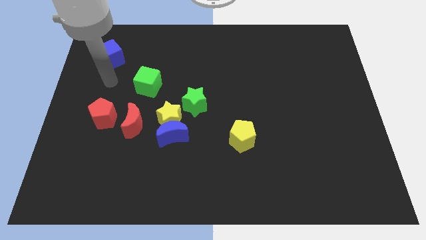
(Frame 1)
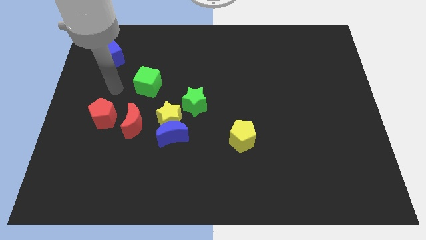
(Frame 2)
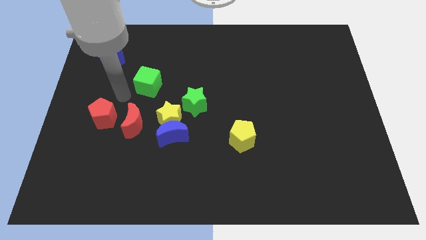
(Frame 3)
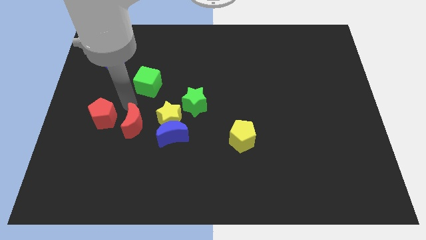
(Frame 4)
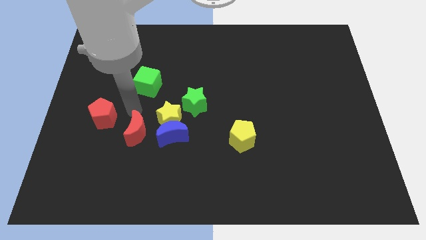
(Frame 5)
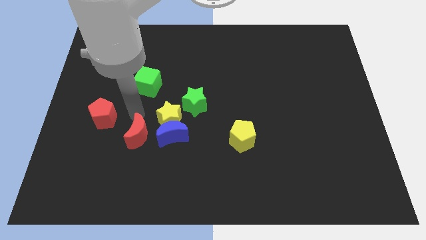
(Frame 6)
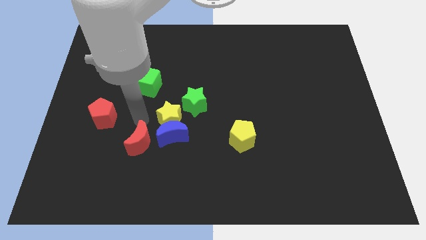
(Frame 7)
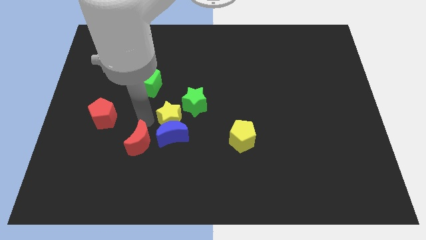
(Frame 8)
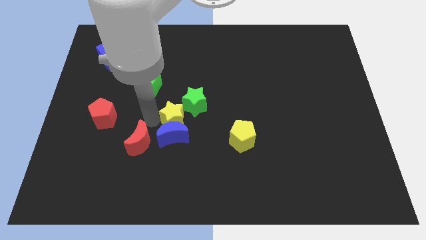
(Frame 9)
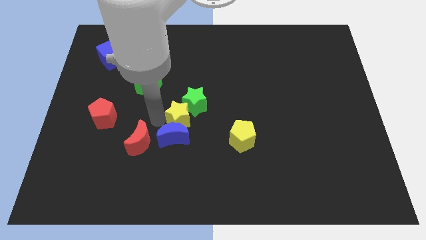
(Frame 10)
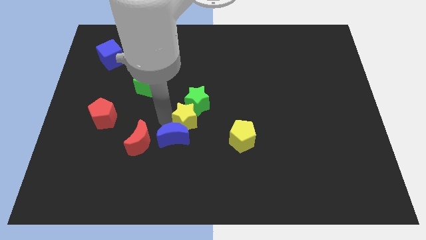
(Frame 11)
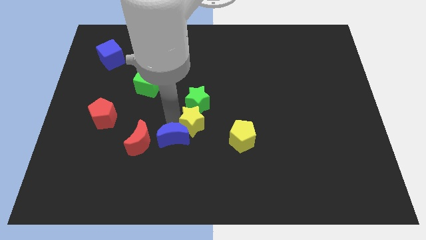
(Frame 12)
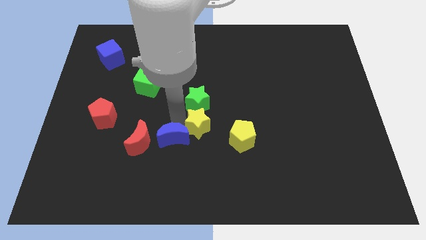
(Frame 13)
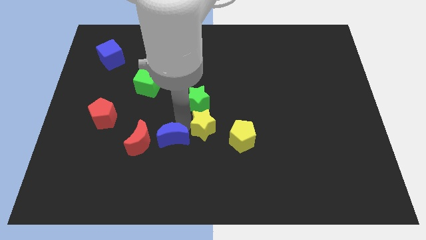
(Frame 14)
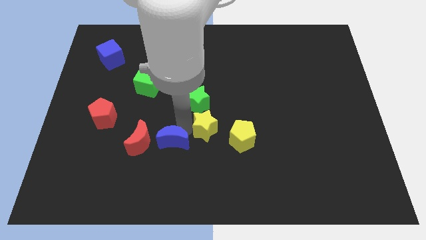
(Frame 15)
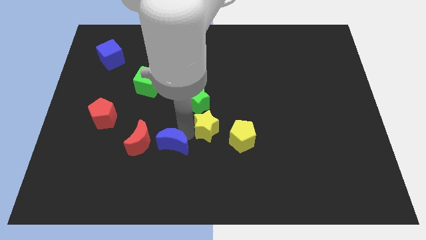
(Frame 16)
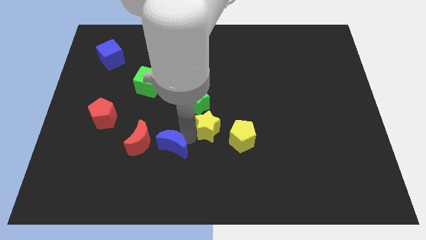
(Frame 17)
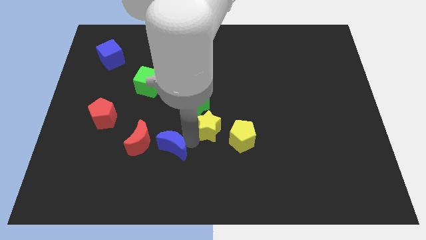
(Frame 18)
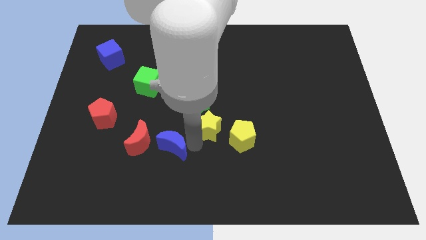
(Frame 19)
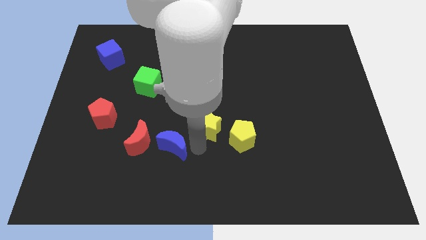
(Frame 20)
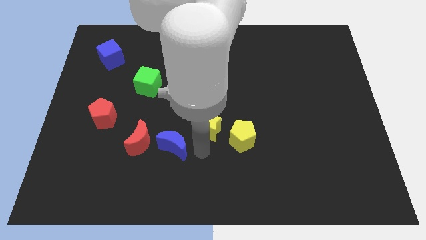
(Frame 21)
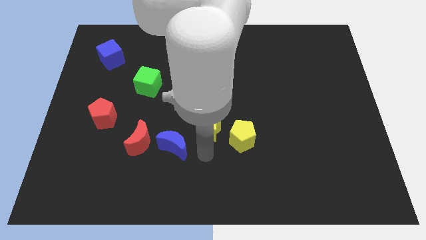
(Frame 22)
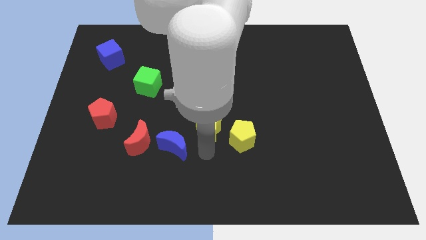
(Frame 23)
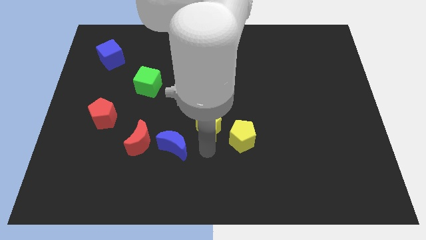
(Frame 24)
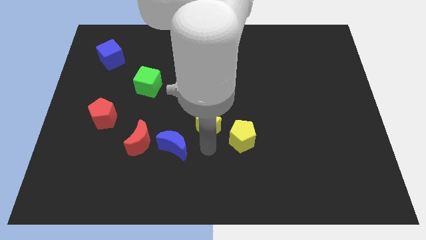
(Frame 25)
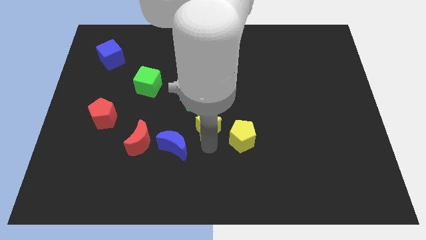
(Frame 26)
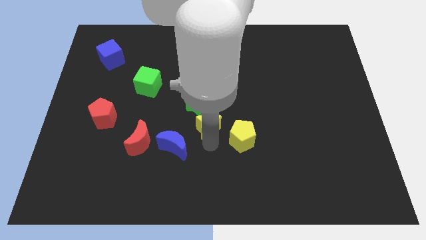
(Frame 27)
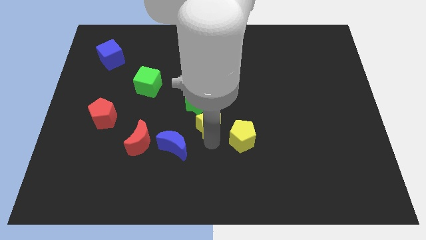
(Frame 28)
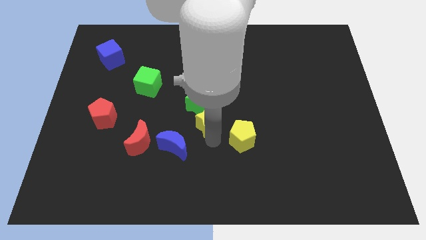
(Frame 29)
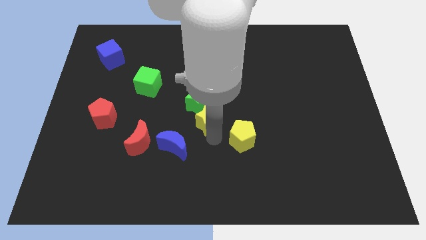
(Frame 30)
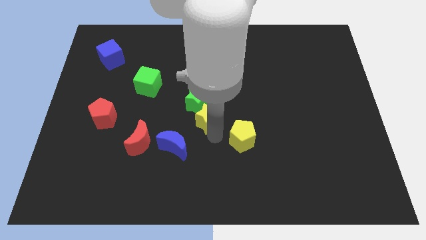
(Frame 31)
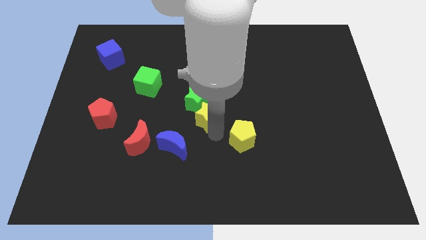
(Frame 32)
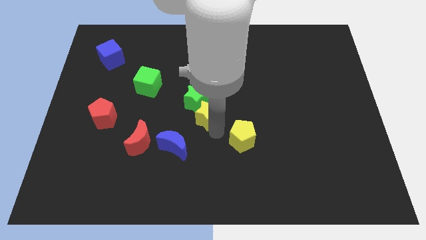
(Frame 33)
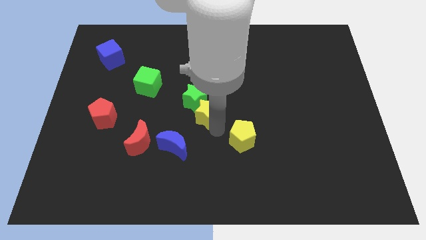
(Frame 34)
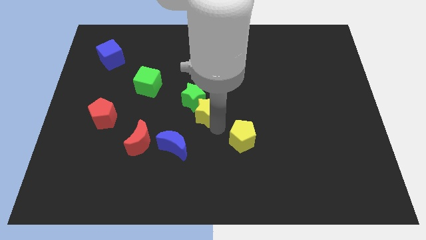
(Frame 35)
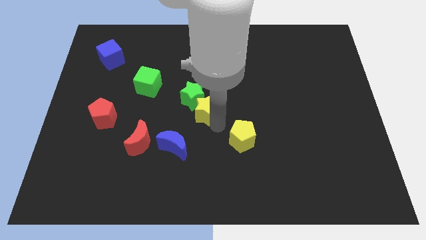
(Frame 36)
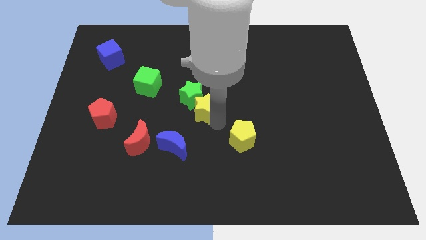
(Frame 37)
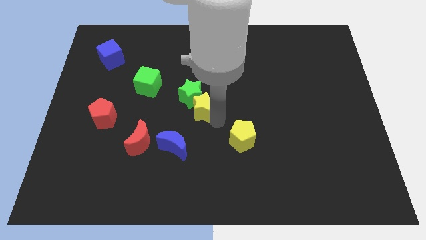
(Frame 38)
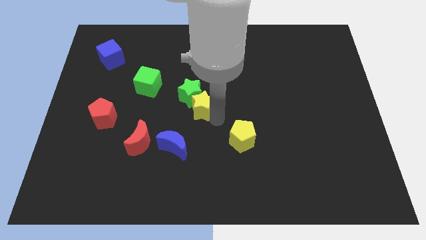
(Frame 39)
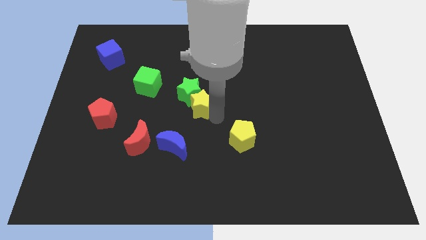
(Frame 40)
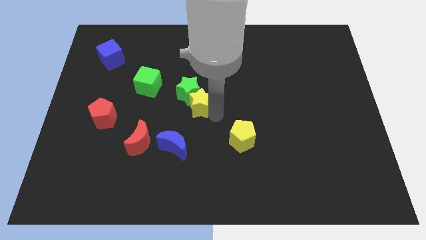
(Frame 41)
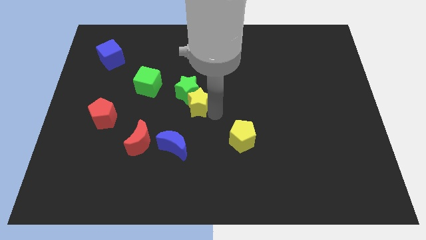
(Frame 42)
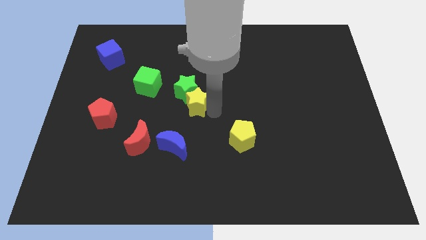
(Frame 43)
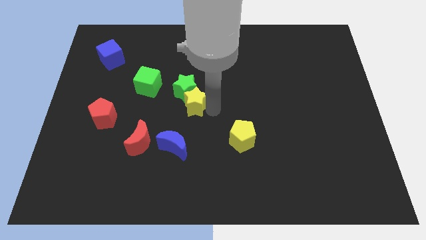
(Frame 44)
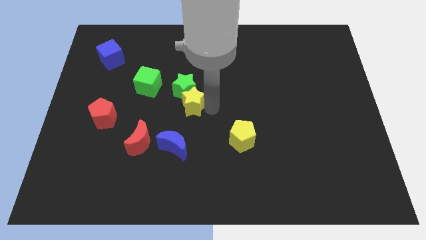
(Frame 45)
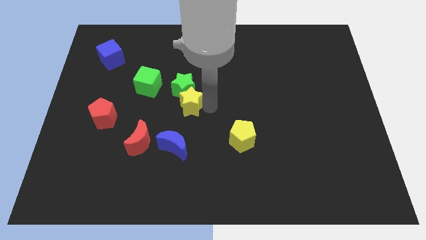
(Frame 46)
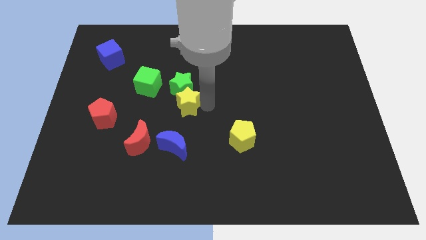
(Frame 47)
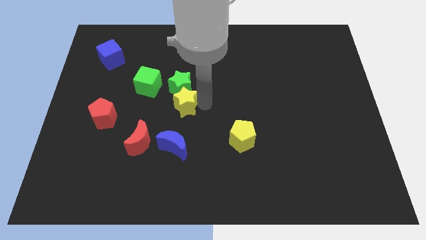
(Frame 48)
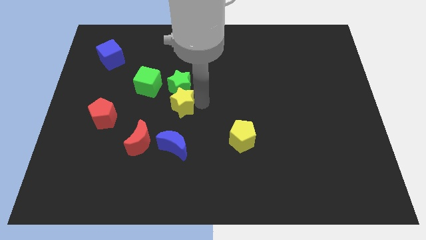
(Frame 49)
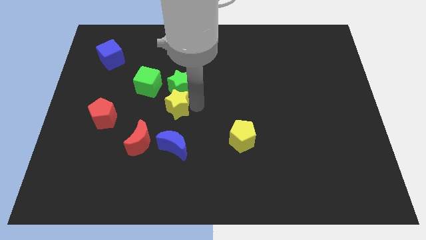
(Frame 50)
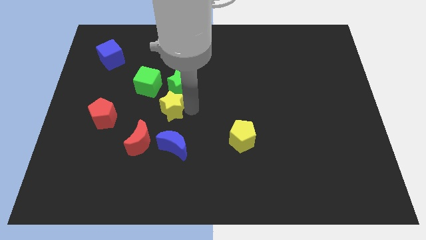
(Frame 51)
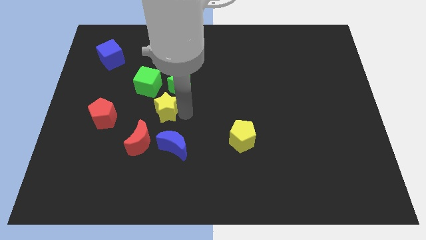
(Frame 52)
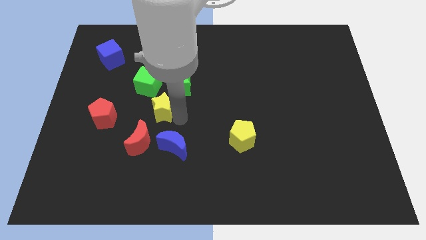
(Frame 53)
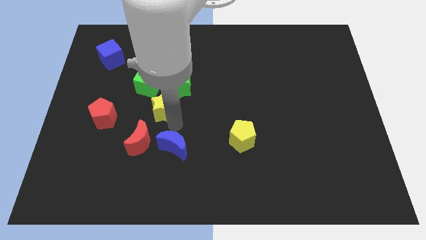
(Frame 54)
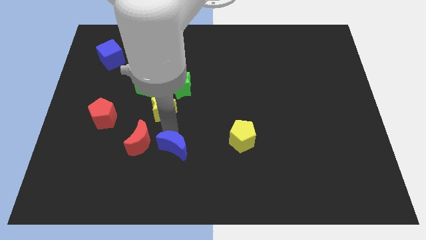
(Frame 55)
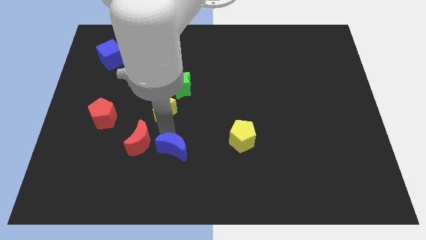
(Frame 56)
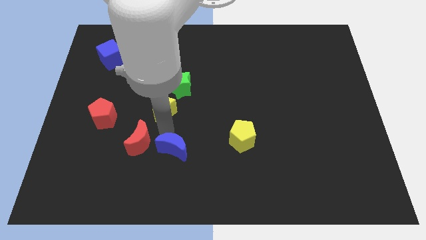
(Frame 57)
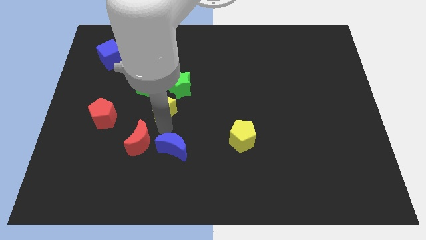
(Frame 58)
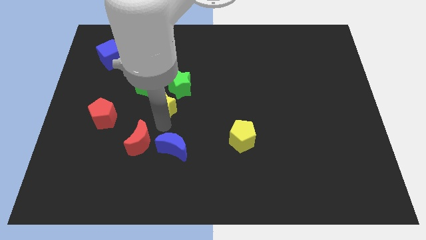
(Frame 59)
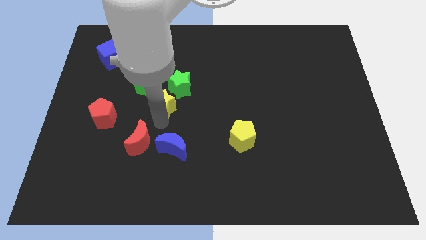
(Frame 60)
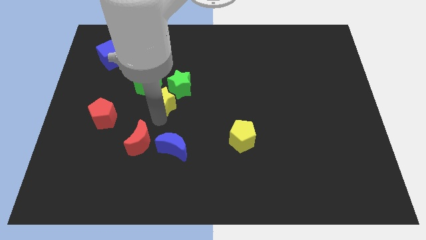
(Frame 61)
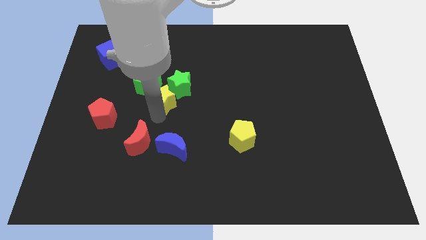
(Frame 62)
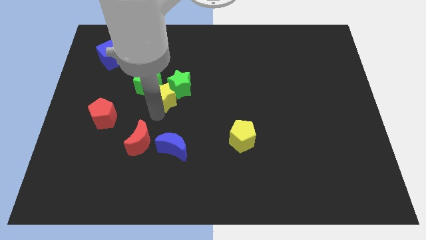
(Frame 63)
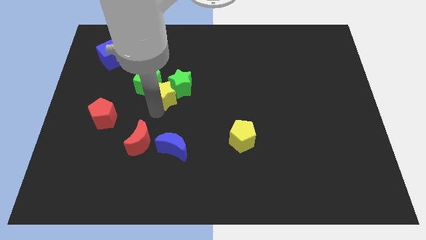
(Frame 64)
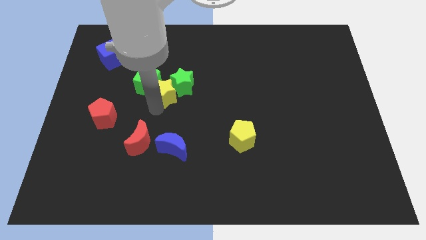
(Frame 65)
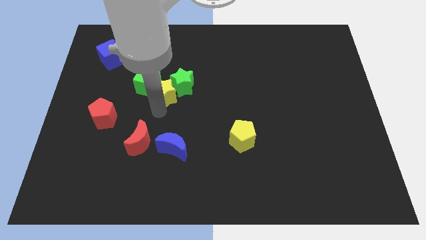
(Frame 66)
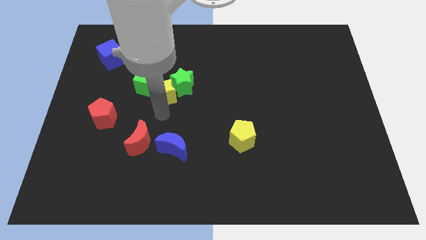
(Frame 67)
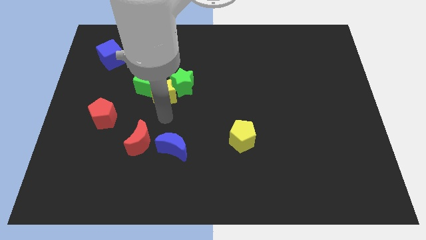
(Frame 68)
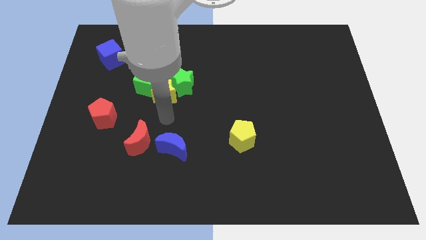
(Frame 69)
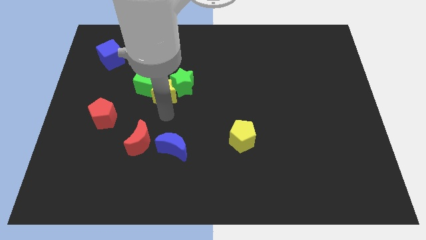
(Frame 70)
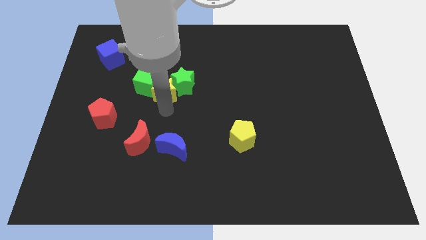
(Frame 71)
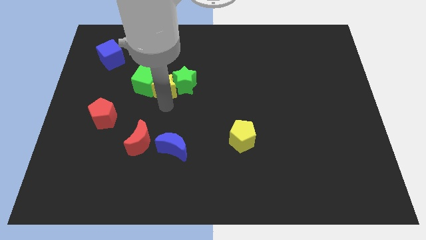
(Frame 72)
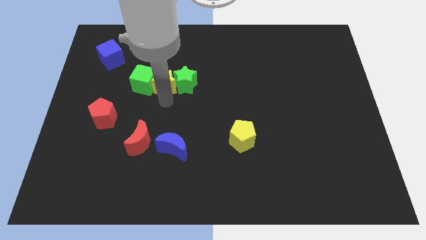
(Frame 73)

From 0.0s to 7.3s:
separate the yellow star from the blue moon, green star, and red moon

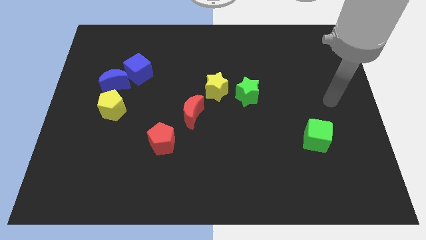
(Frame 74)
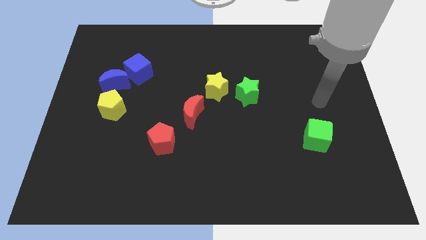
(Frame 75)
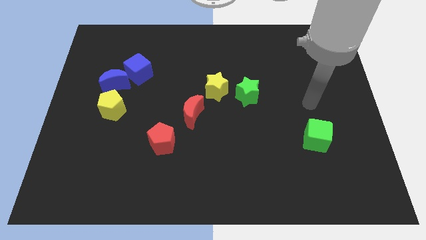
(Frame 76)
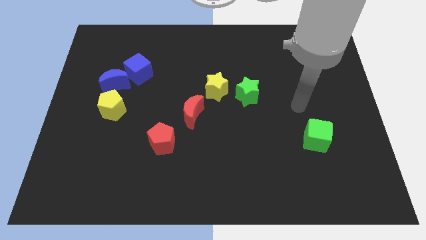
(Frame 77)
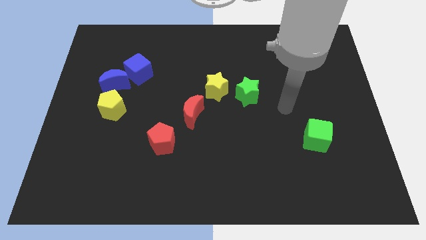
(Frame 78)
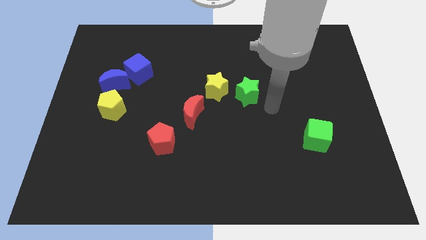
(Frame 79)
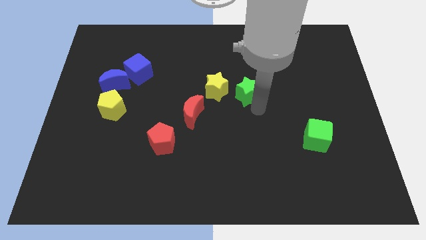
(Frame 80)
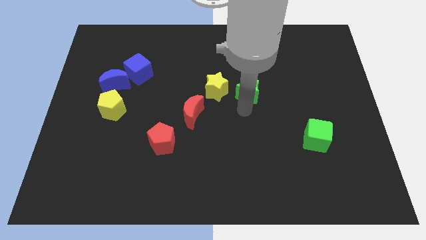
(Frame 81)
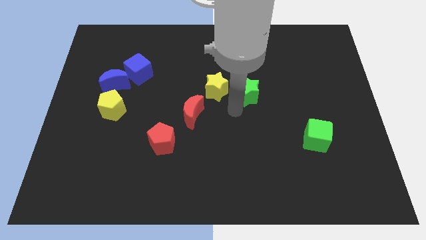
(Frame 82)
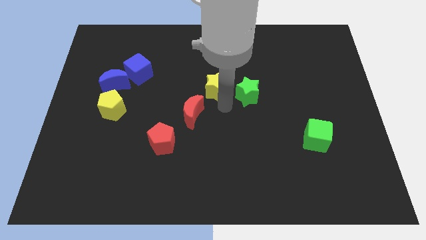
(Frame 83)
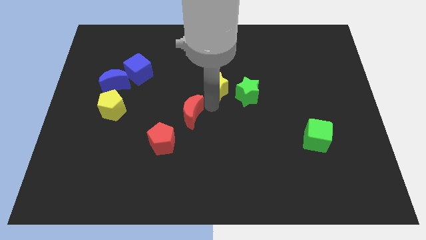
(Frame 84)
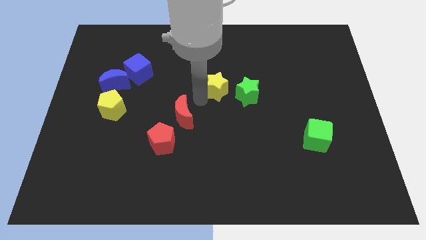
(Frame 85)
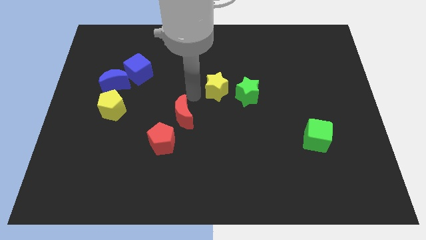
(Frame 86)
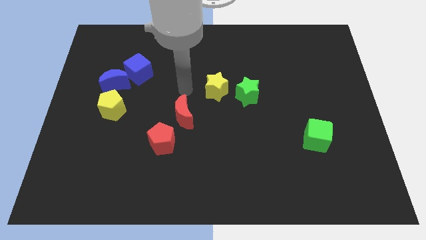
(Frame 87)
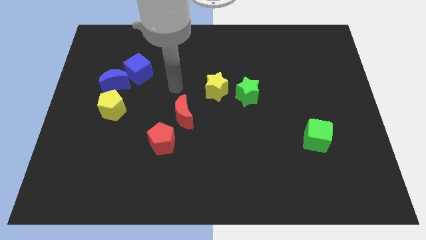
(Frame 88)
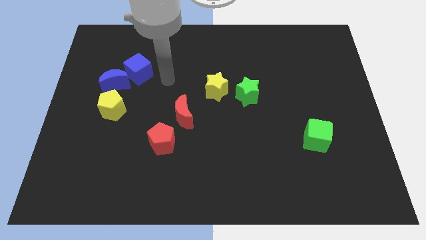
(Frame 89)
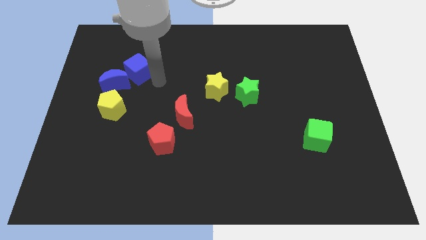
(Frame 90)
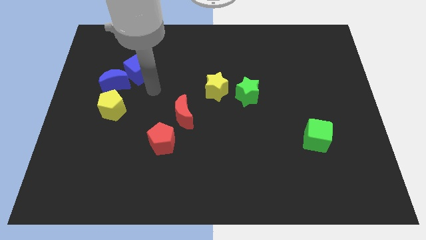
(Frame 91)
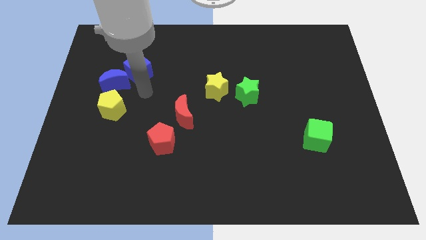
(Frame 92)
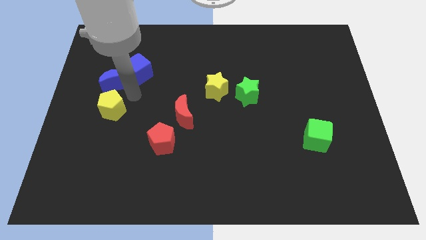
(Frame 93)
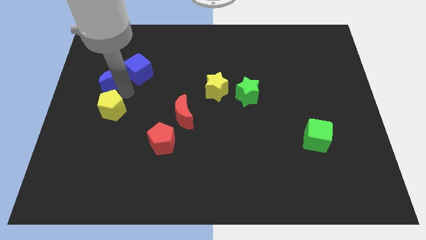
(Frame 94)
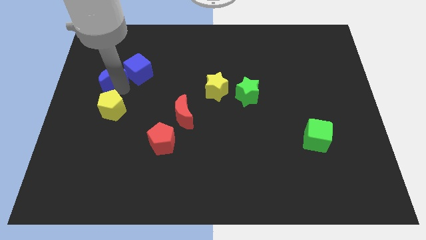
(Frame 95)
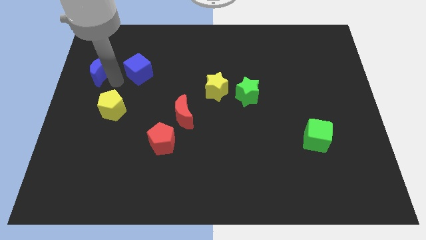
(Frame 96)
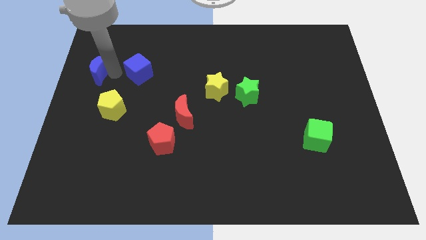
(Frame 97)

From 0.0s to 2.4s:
pull the blue cube apart from the blue moon
